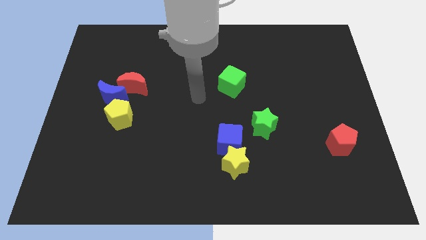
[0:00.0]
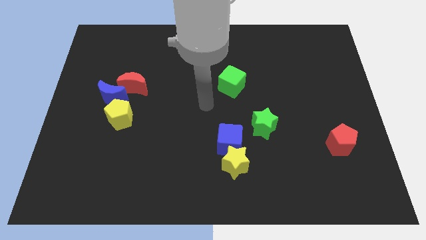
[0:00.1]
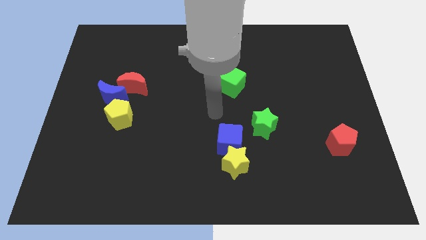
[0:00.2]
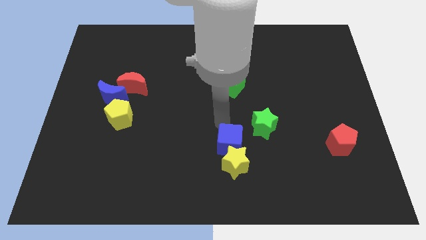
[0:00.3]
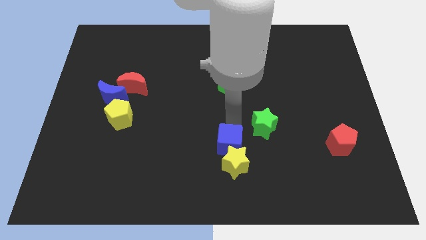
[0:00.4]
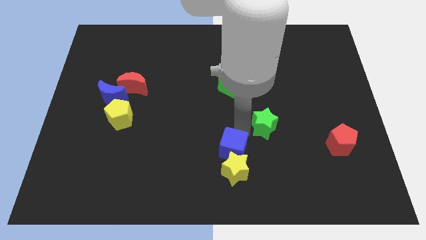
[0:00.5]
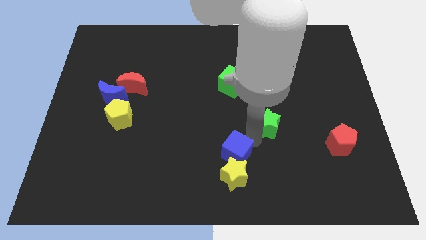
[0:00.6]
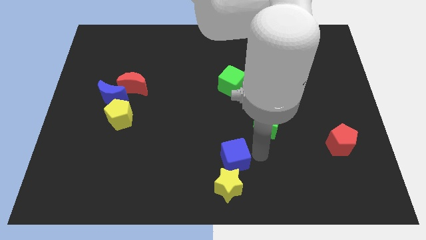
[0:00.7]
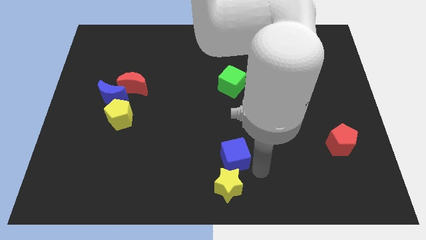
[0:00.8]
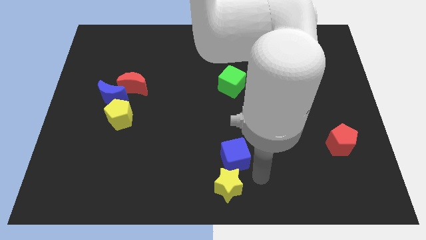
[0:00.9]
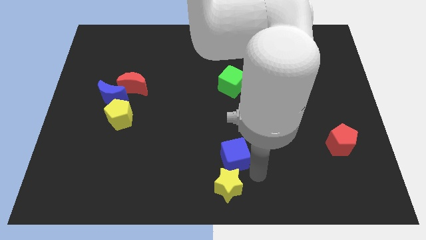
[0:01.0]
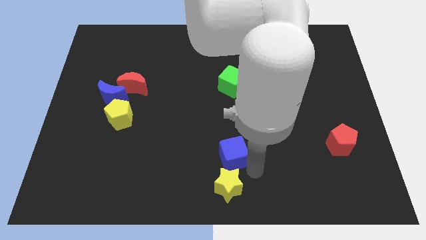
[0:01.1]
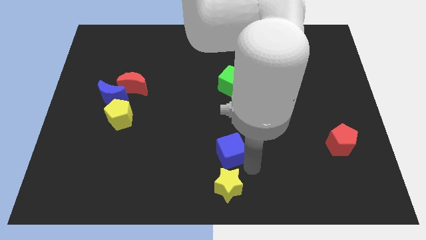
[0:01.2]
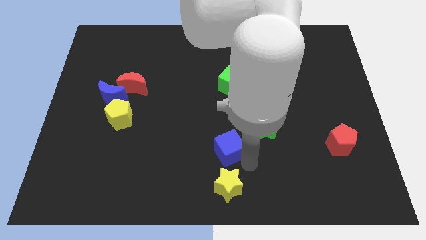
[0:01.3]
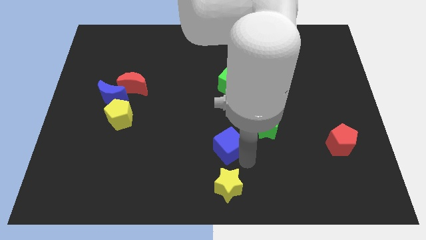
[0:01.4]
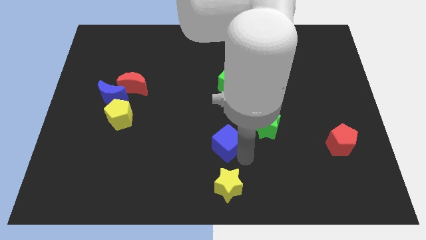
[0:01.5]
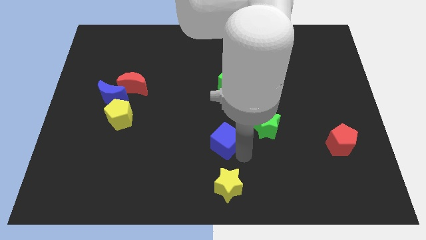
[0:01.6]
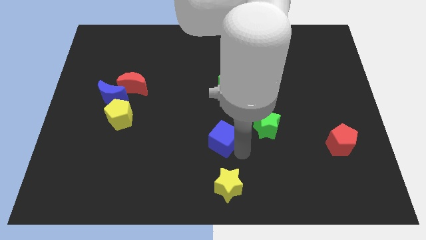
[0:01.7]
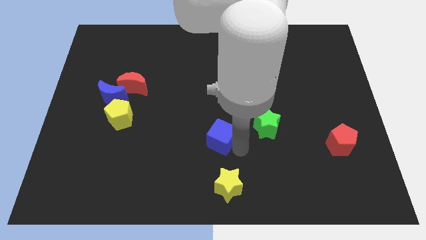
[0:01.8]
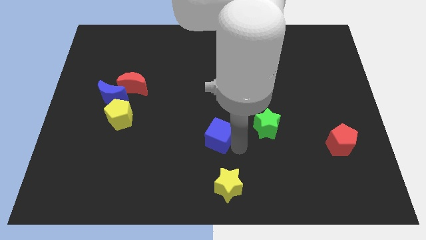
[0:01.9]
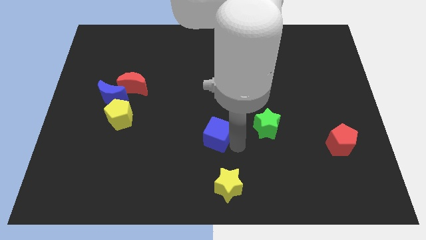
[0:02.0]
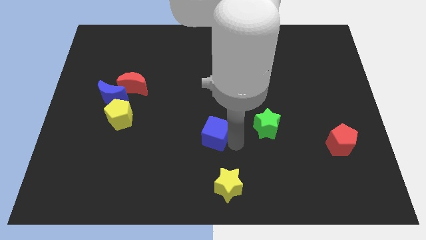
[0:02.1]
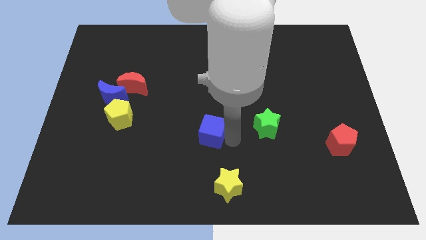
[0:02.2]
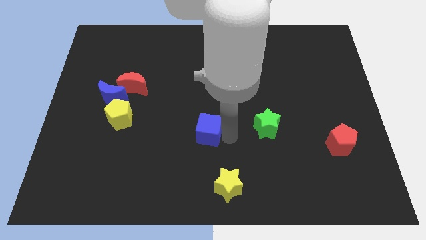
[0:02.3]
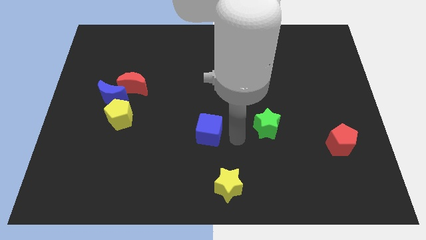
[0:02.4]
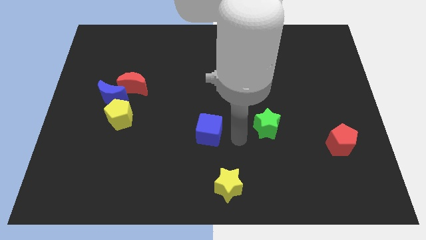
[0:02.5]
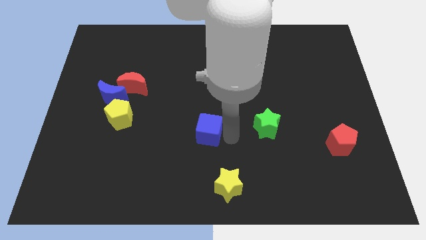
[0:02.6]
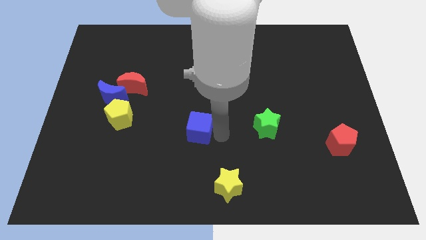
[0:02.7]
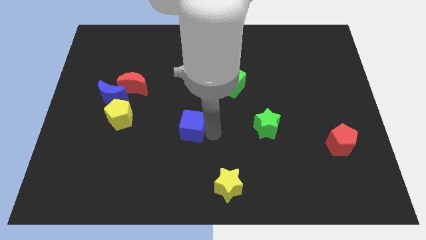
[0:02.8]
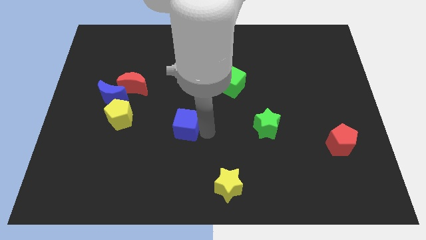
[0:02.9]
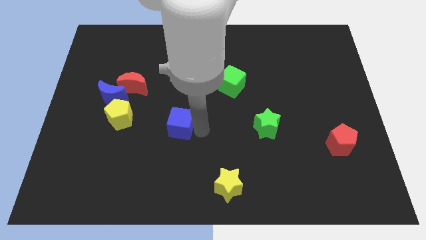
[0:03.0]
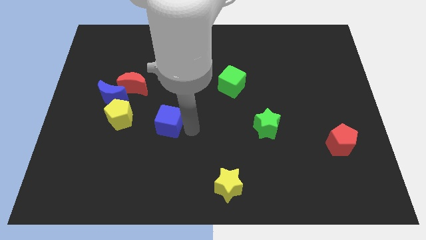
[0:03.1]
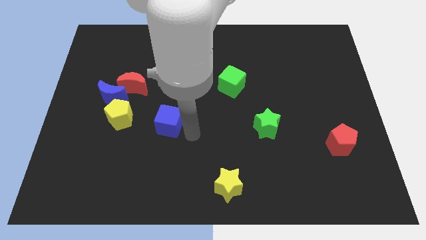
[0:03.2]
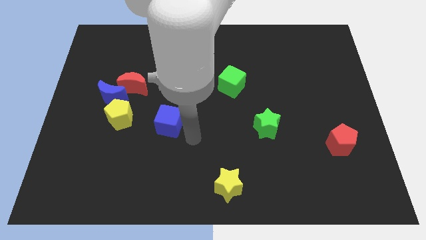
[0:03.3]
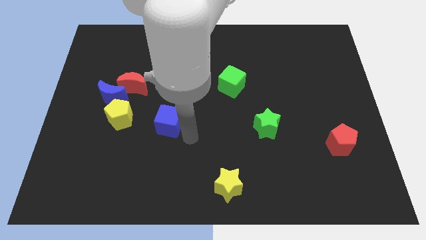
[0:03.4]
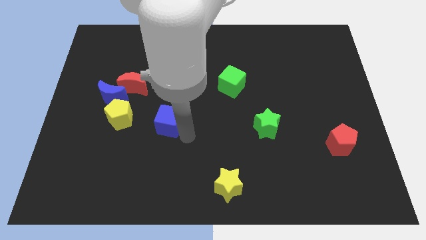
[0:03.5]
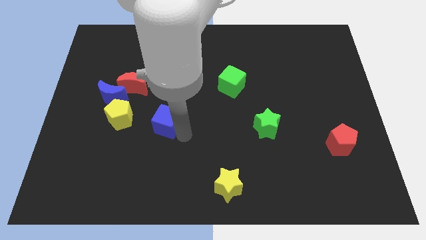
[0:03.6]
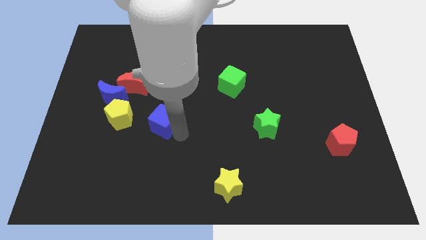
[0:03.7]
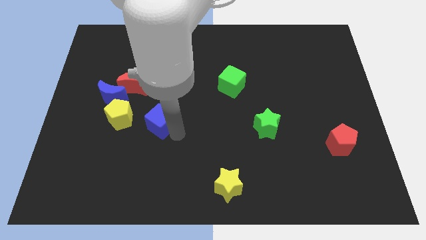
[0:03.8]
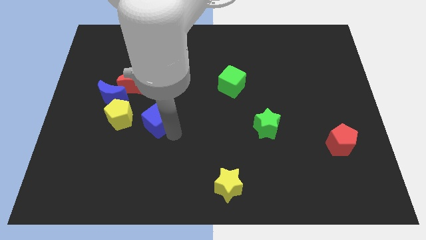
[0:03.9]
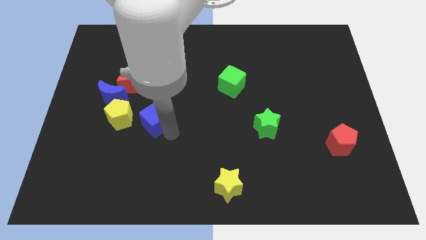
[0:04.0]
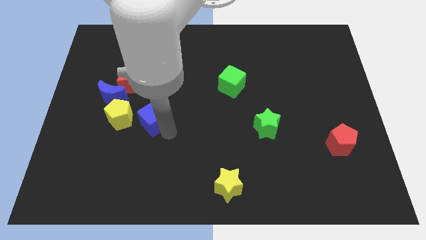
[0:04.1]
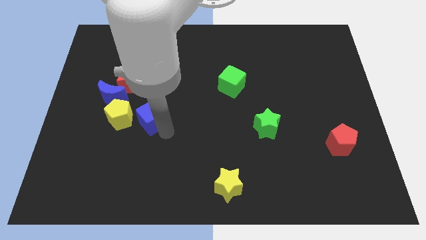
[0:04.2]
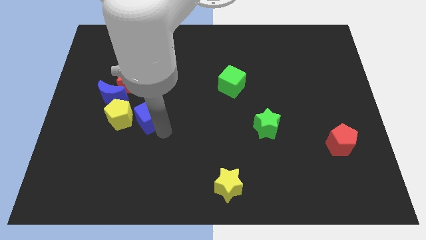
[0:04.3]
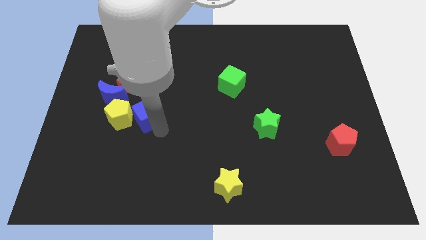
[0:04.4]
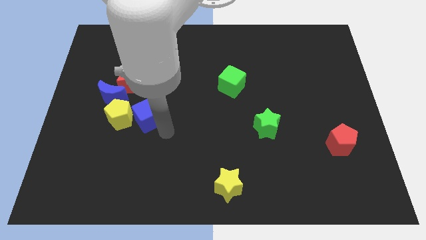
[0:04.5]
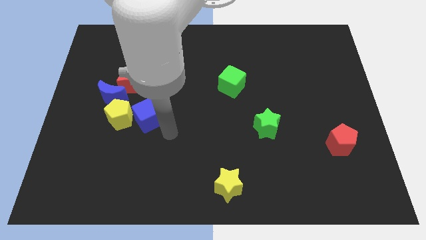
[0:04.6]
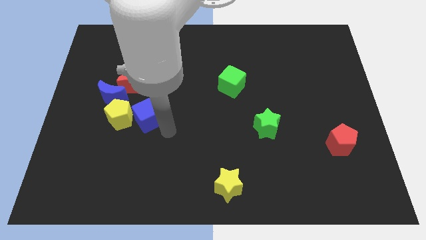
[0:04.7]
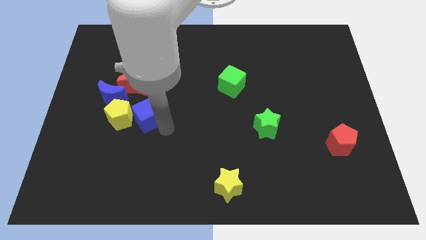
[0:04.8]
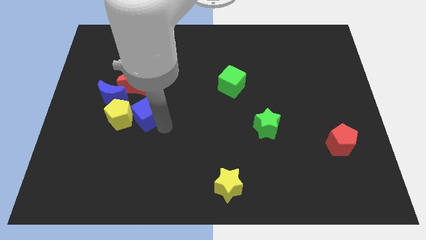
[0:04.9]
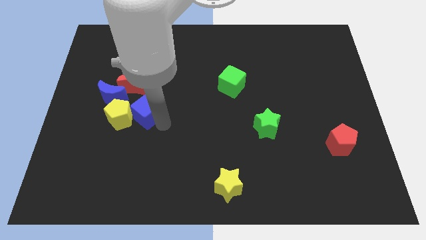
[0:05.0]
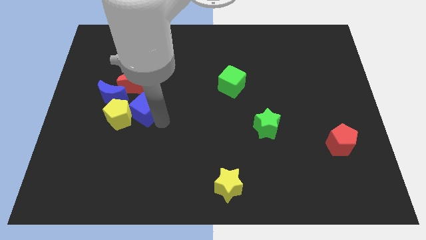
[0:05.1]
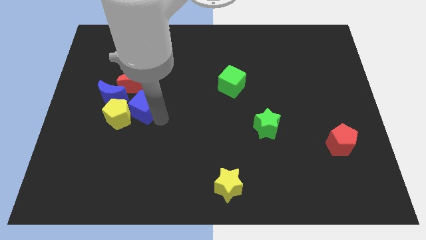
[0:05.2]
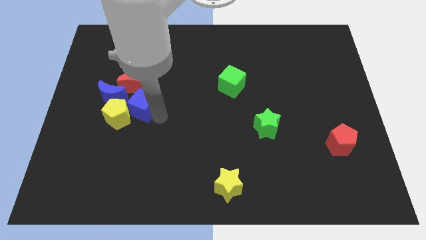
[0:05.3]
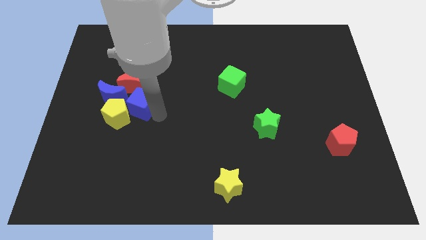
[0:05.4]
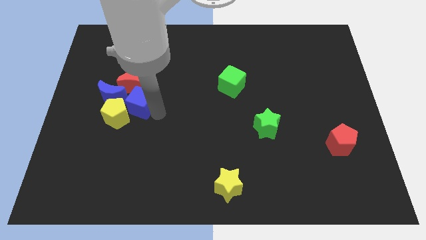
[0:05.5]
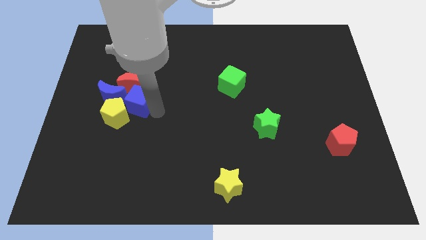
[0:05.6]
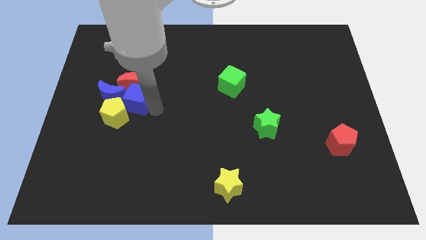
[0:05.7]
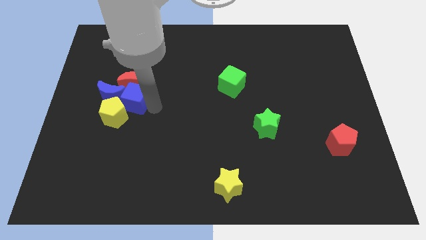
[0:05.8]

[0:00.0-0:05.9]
slide the blue cube to the blue moon

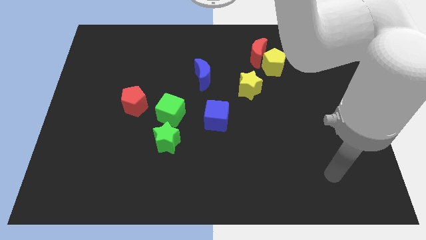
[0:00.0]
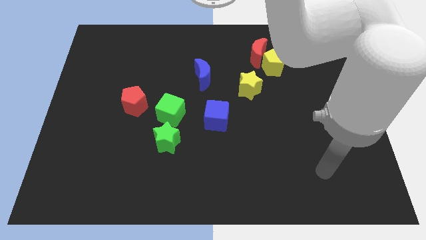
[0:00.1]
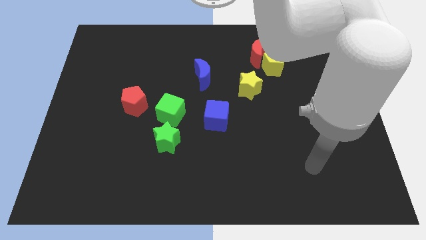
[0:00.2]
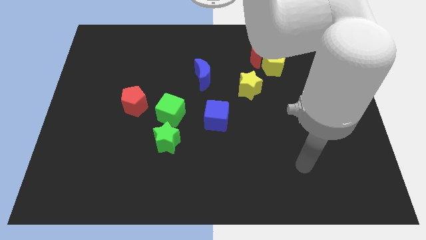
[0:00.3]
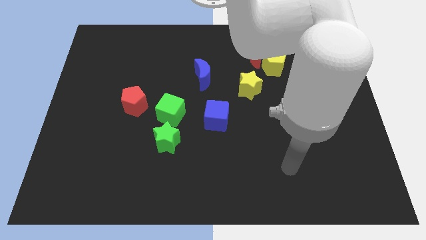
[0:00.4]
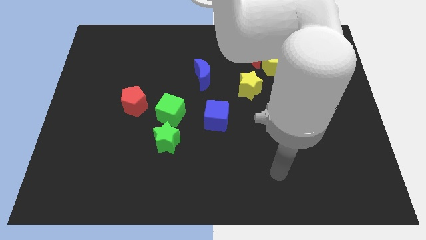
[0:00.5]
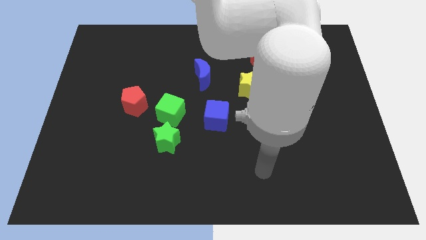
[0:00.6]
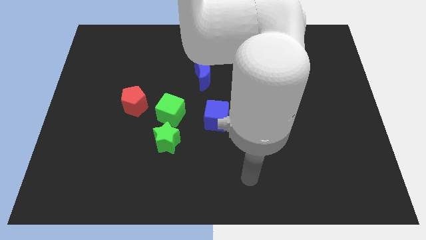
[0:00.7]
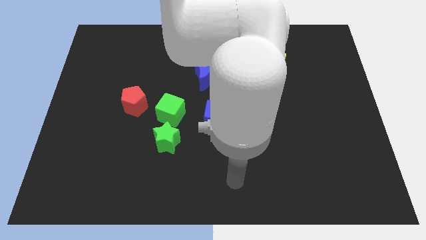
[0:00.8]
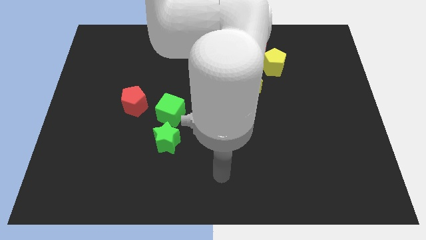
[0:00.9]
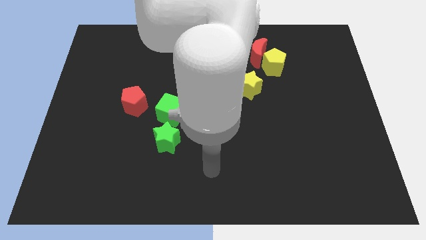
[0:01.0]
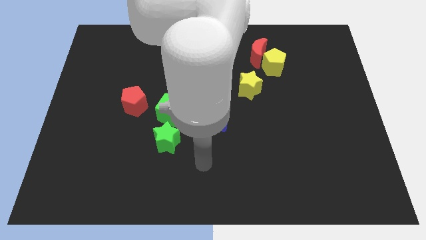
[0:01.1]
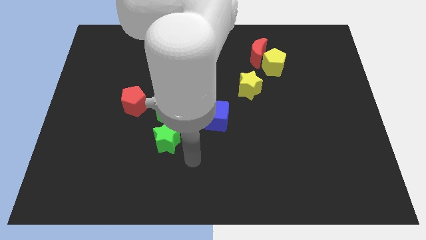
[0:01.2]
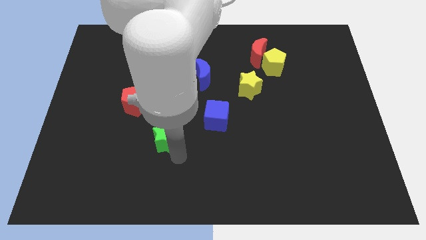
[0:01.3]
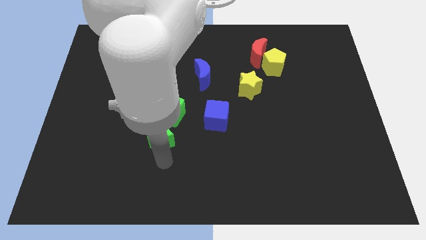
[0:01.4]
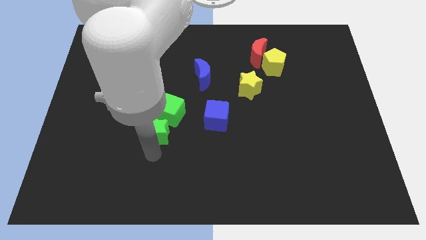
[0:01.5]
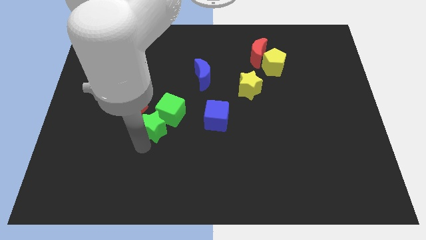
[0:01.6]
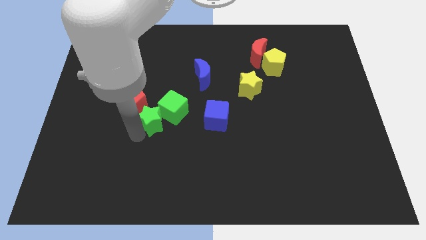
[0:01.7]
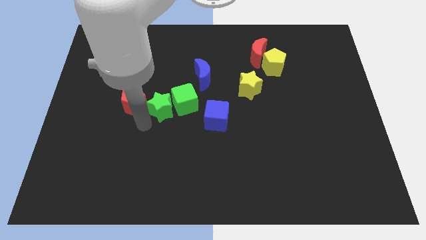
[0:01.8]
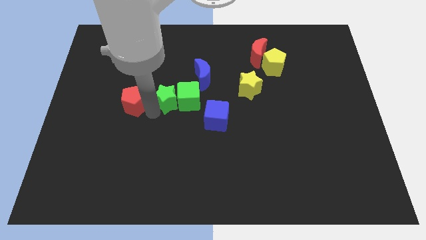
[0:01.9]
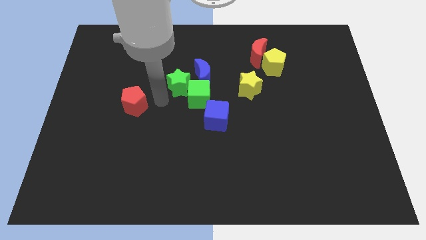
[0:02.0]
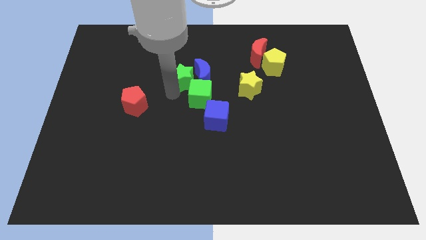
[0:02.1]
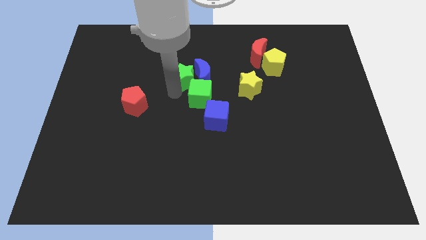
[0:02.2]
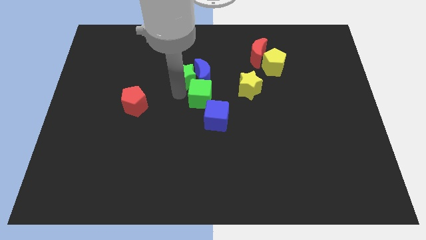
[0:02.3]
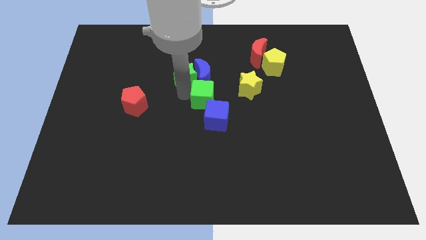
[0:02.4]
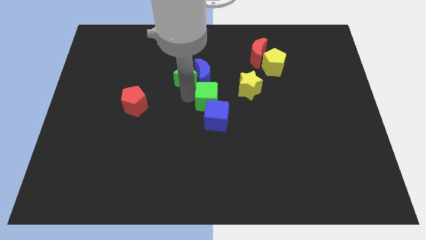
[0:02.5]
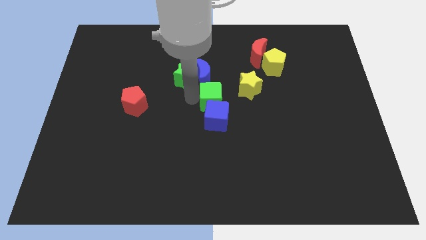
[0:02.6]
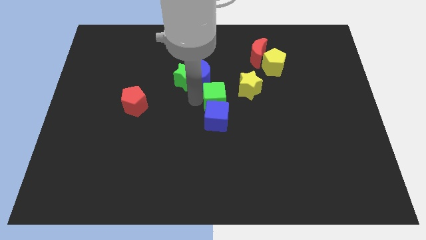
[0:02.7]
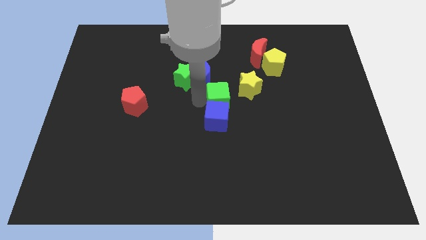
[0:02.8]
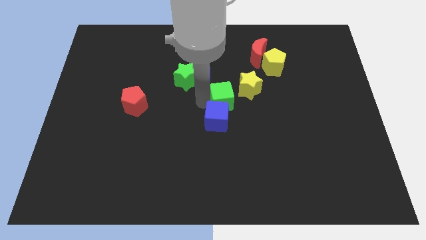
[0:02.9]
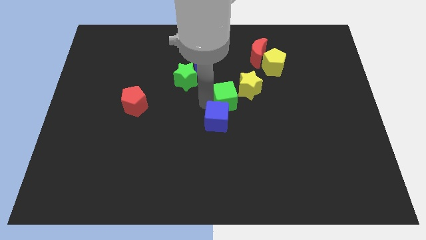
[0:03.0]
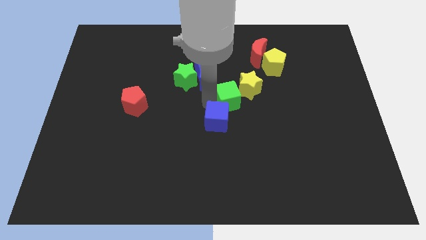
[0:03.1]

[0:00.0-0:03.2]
push the green cube towards the yellow star
